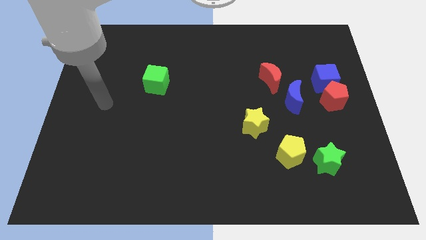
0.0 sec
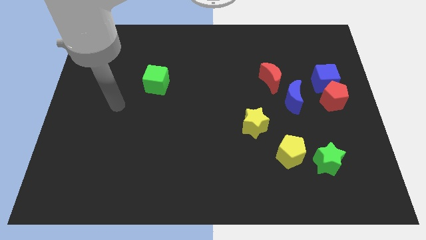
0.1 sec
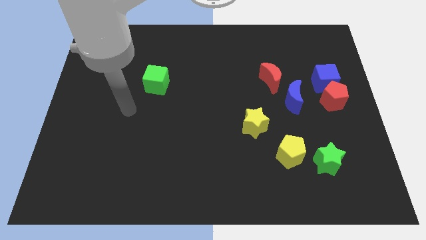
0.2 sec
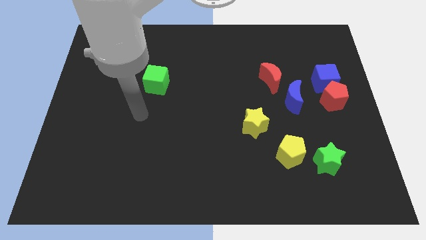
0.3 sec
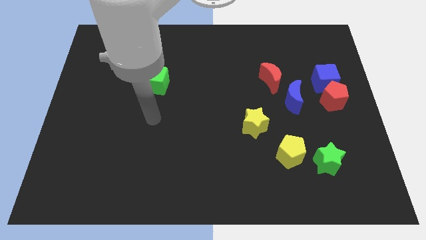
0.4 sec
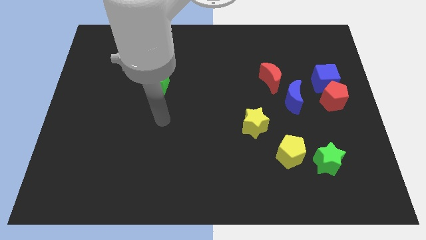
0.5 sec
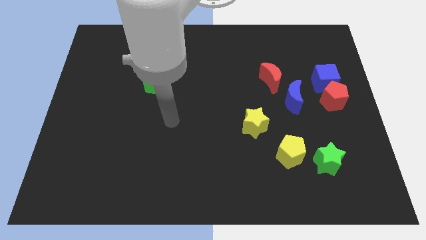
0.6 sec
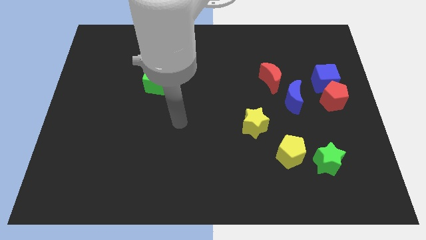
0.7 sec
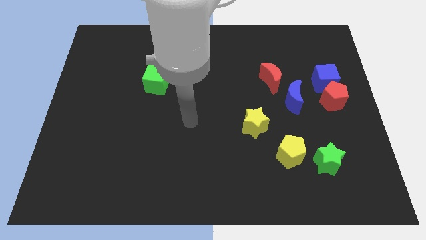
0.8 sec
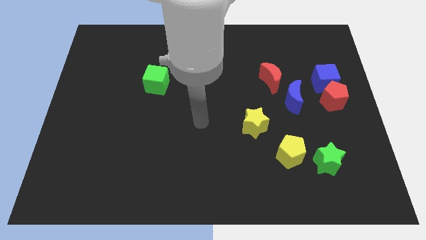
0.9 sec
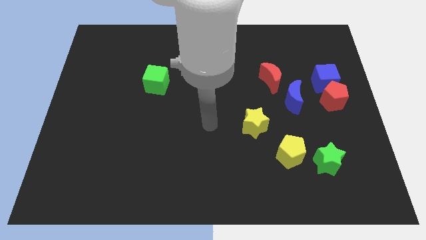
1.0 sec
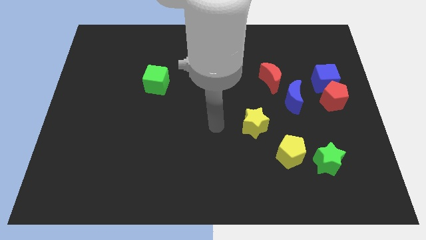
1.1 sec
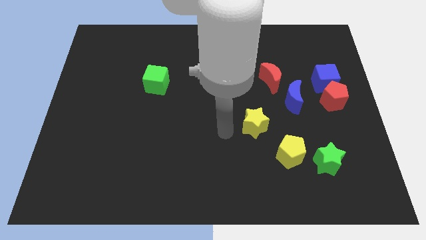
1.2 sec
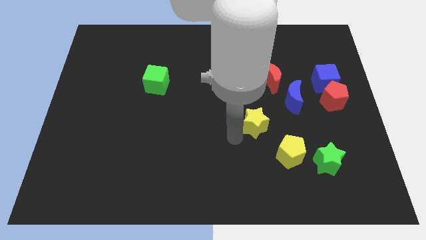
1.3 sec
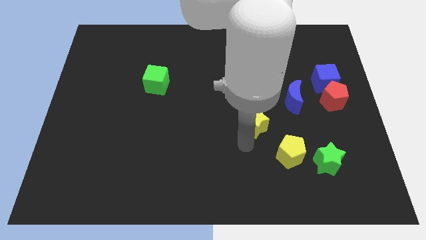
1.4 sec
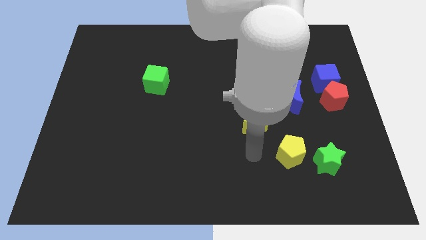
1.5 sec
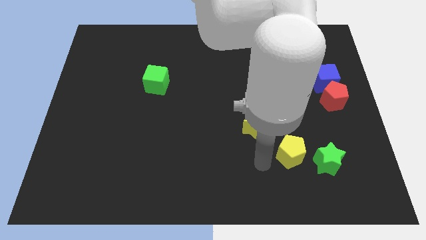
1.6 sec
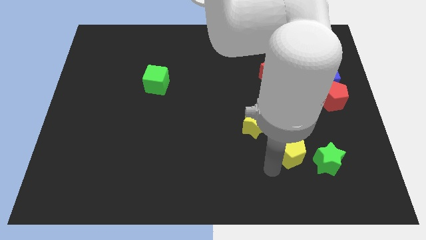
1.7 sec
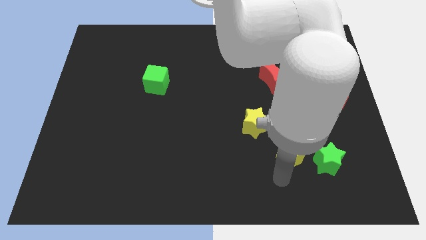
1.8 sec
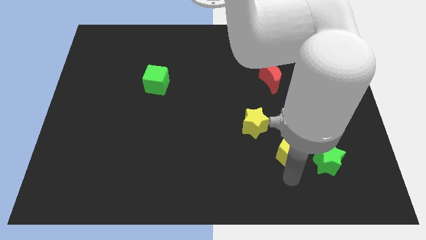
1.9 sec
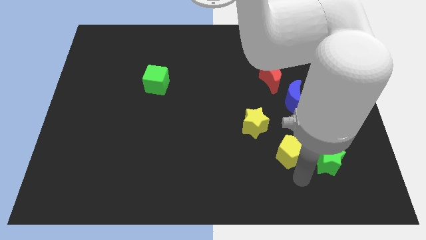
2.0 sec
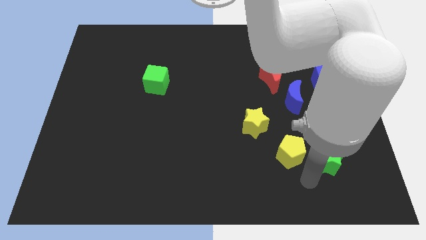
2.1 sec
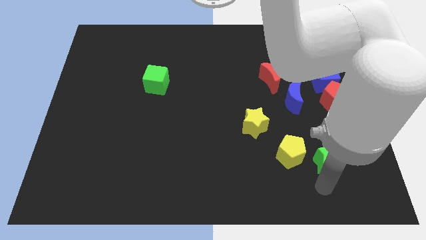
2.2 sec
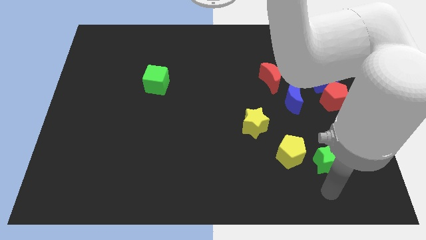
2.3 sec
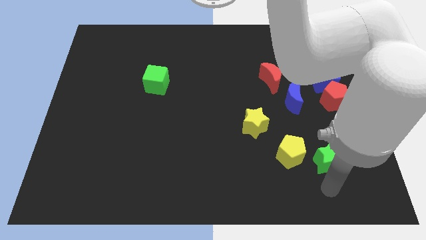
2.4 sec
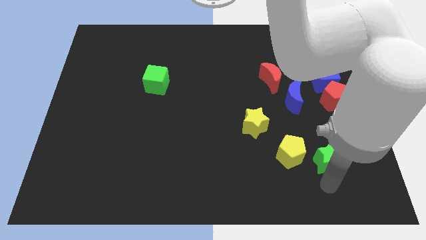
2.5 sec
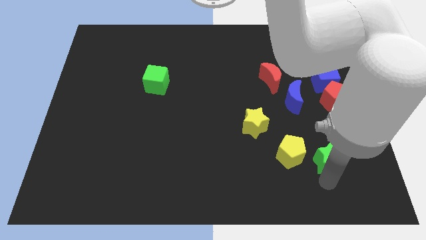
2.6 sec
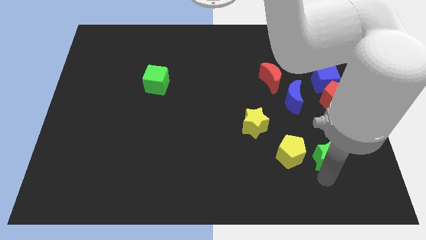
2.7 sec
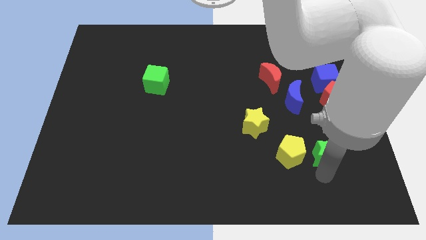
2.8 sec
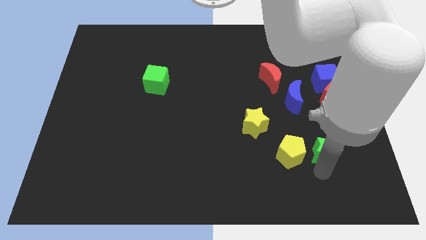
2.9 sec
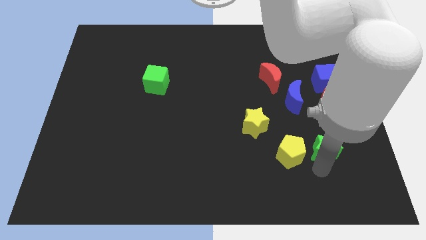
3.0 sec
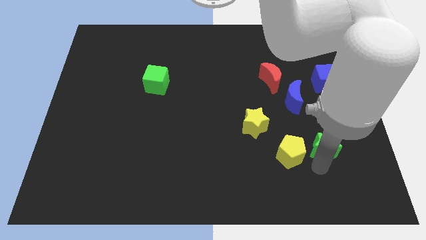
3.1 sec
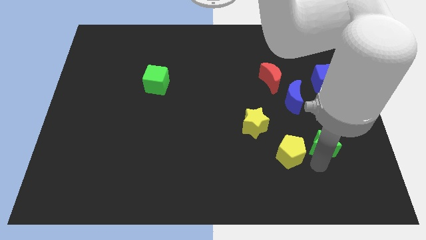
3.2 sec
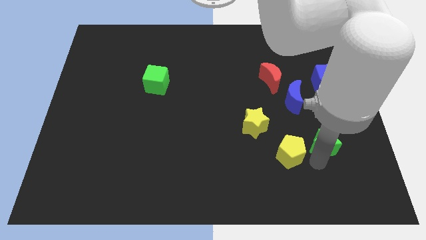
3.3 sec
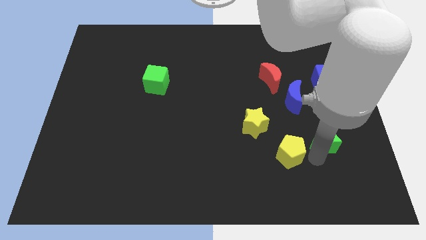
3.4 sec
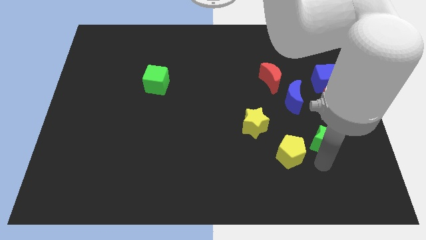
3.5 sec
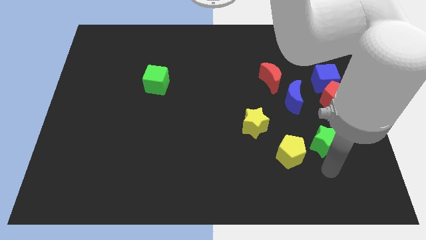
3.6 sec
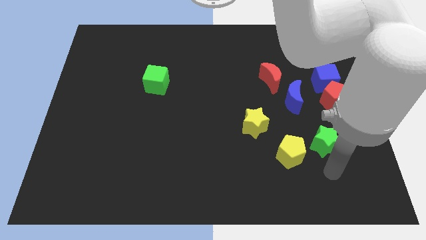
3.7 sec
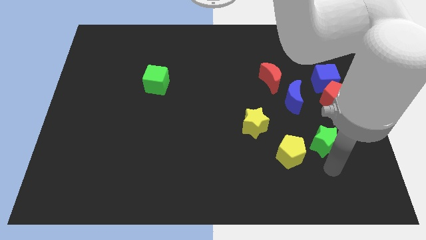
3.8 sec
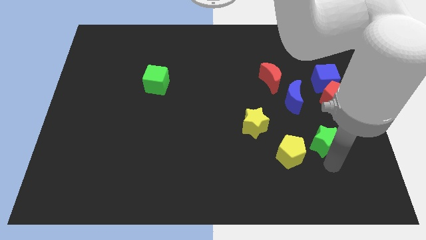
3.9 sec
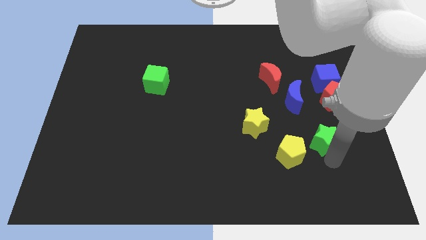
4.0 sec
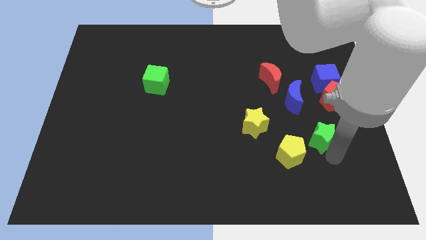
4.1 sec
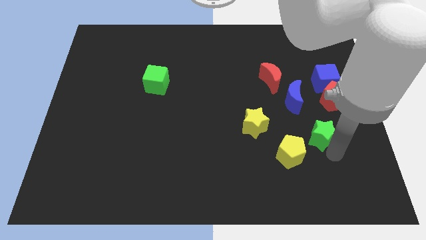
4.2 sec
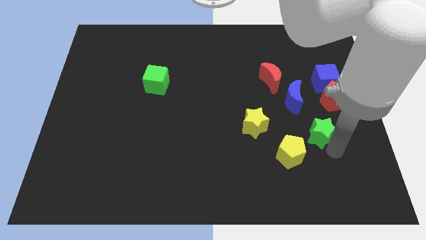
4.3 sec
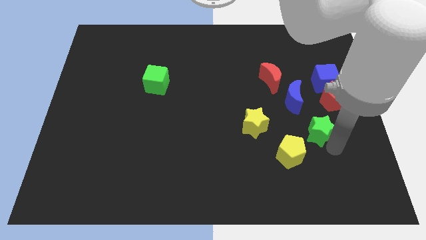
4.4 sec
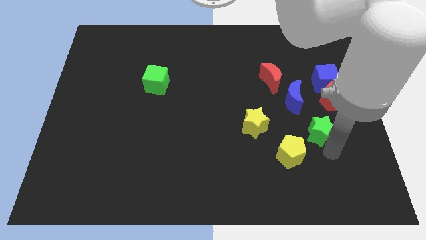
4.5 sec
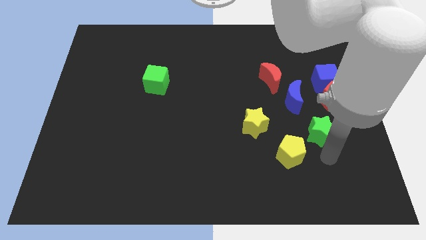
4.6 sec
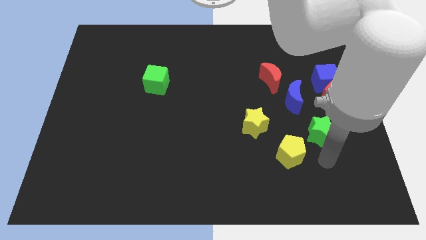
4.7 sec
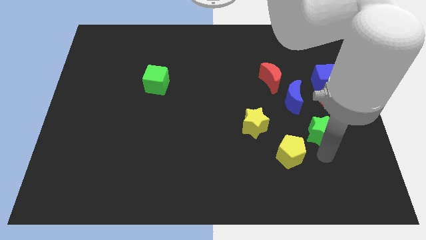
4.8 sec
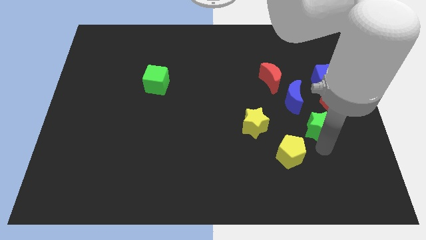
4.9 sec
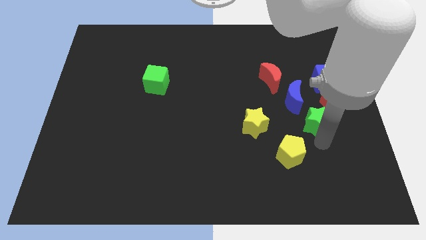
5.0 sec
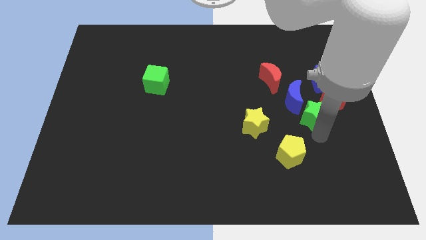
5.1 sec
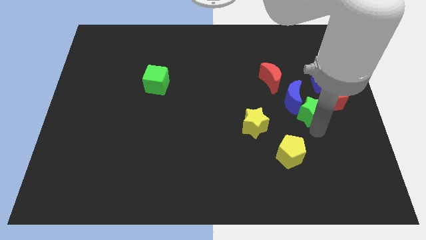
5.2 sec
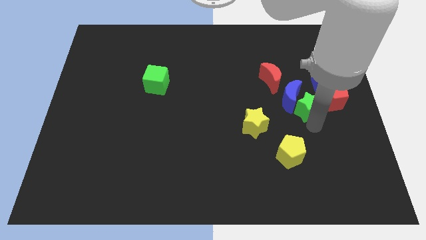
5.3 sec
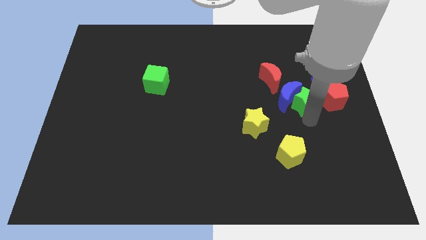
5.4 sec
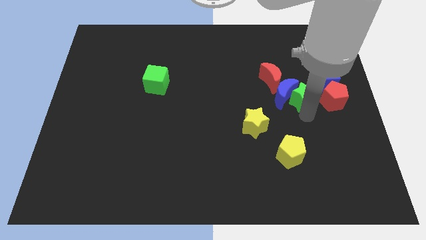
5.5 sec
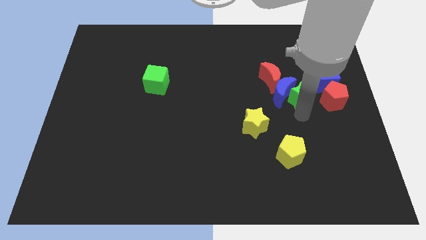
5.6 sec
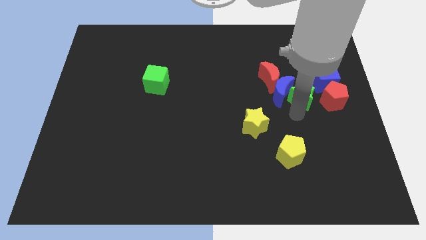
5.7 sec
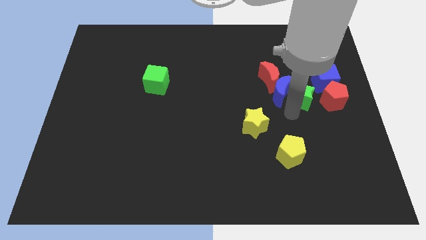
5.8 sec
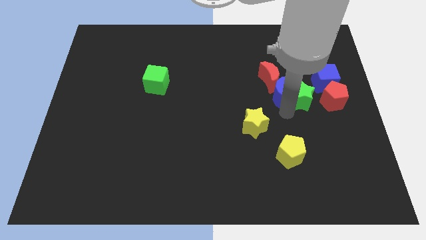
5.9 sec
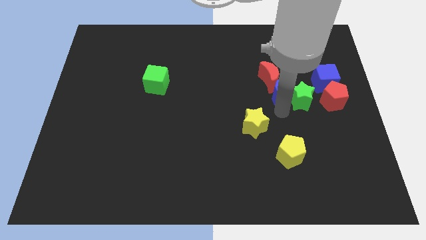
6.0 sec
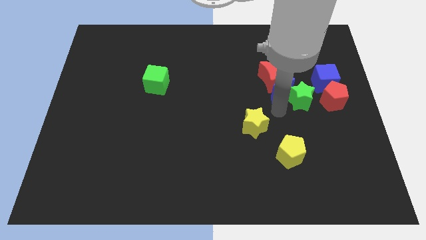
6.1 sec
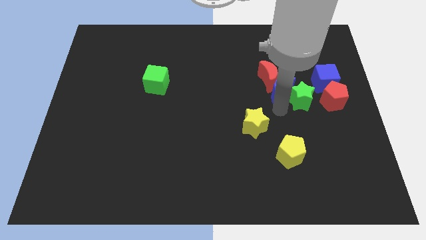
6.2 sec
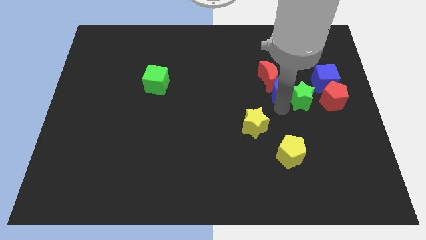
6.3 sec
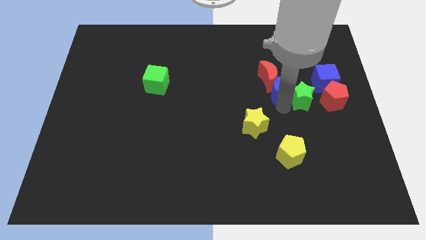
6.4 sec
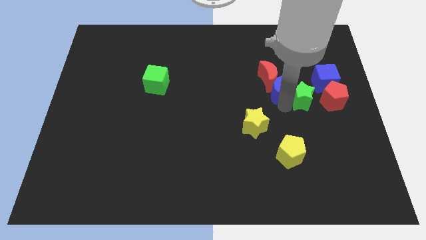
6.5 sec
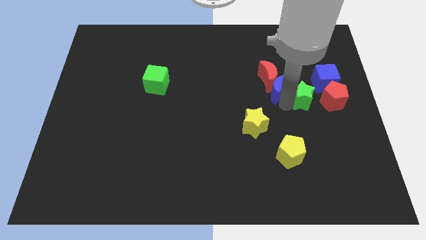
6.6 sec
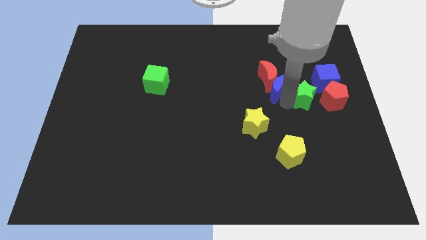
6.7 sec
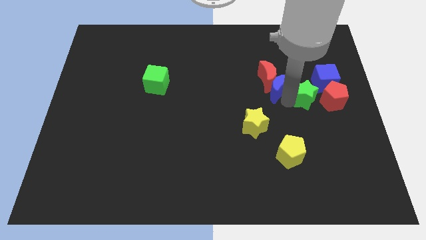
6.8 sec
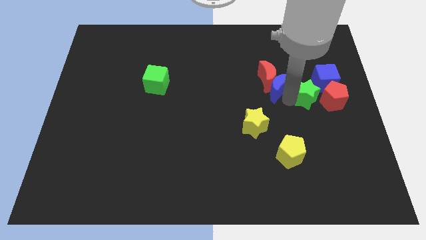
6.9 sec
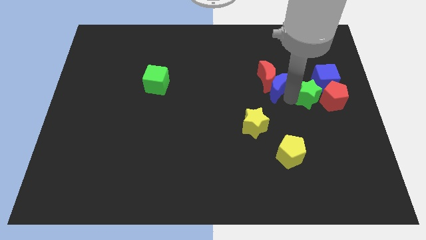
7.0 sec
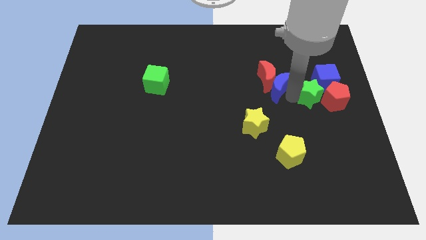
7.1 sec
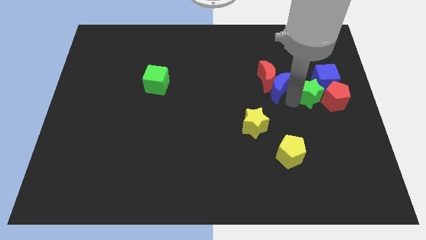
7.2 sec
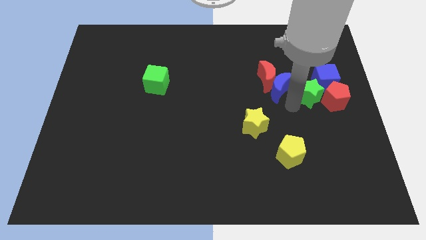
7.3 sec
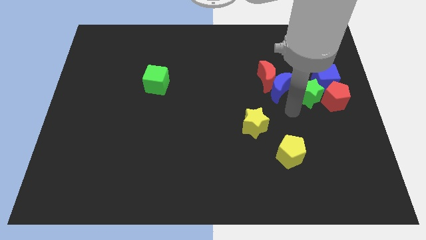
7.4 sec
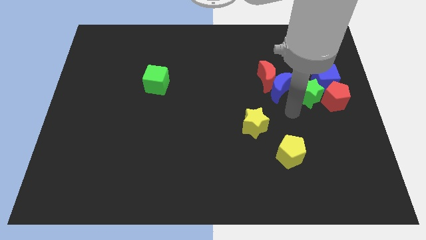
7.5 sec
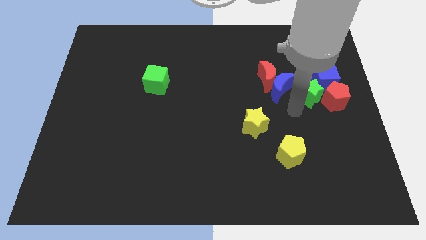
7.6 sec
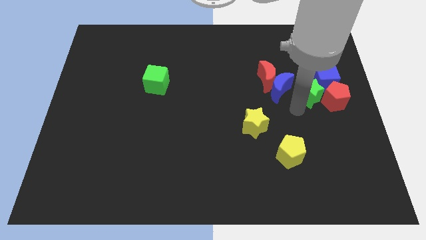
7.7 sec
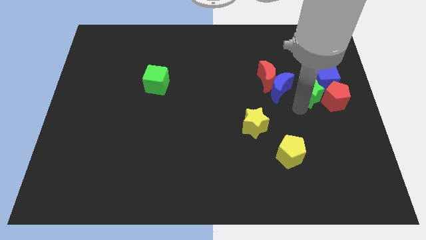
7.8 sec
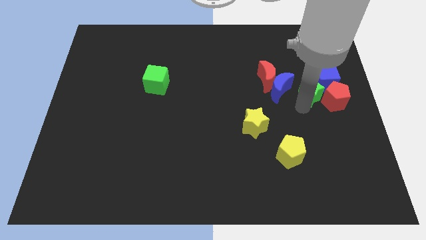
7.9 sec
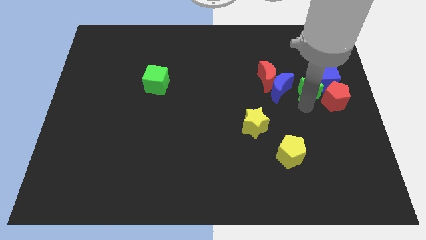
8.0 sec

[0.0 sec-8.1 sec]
slide the green star towards the blue cube
